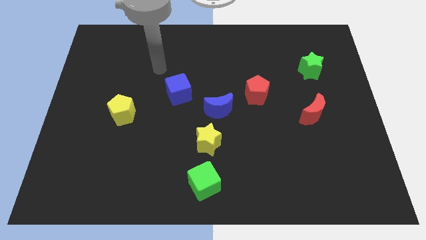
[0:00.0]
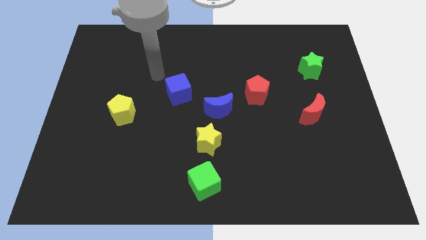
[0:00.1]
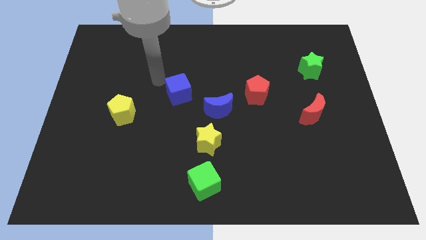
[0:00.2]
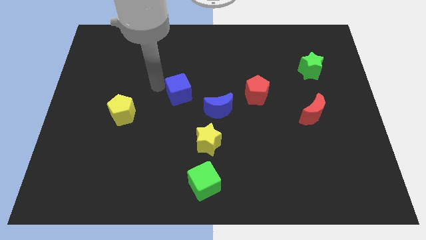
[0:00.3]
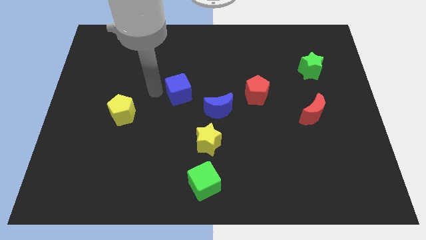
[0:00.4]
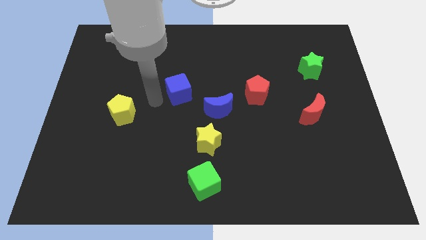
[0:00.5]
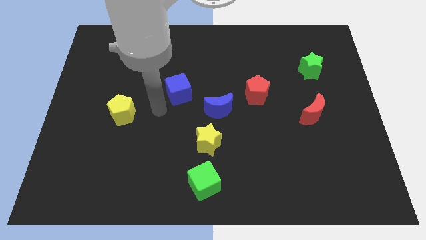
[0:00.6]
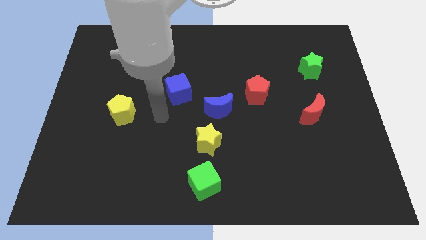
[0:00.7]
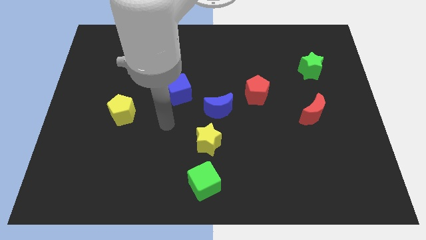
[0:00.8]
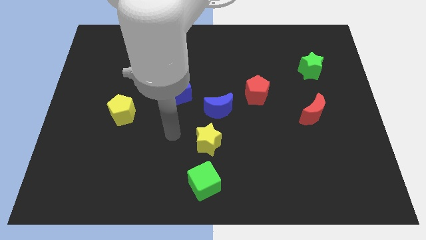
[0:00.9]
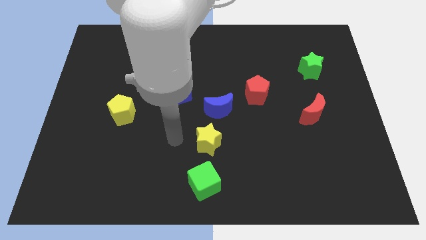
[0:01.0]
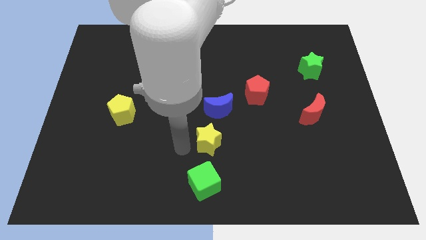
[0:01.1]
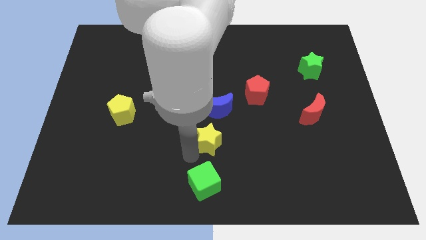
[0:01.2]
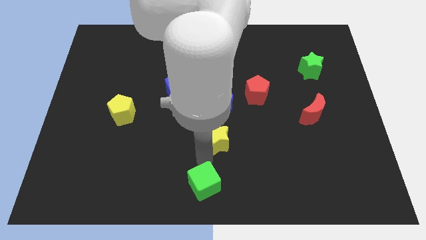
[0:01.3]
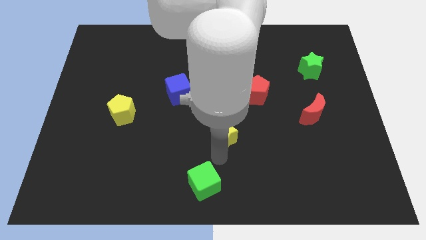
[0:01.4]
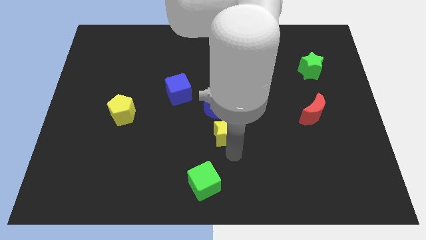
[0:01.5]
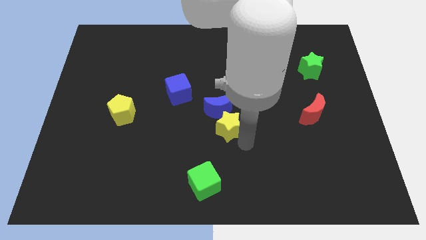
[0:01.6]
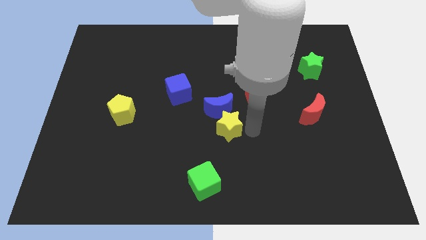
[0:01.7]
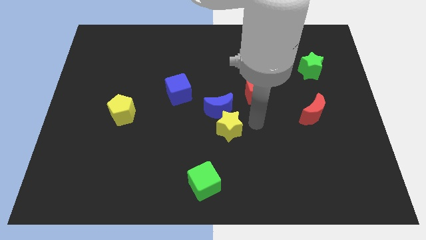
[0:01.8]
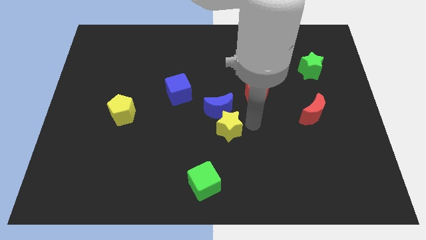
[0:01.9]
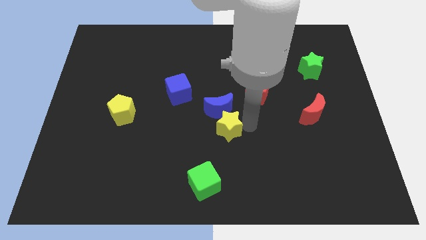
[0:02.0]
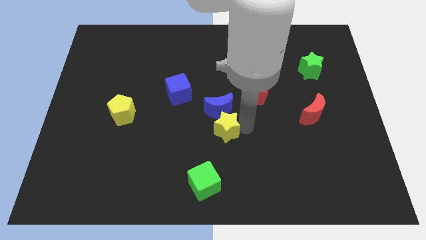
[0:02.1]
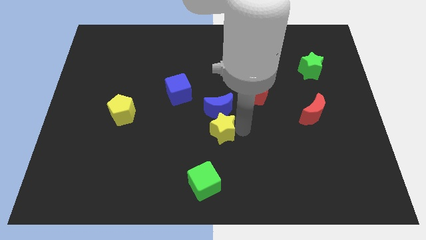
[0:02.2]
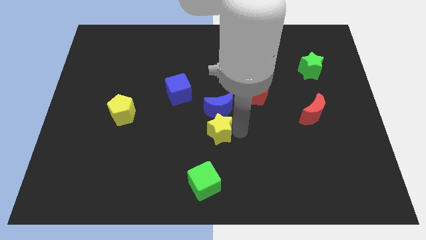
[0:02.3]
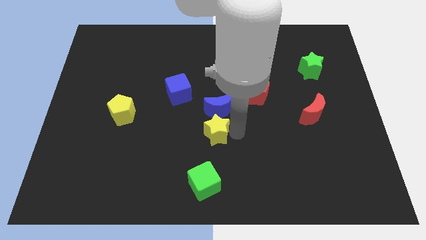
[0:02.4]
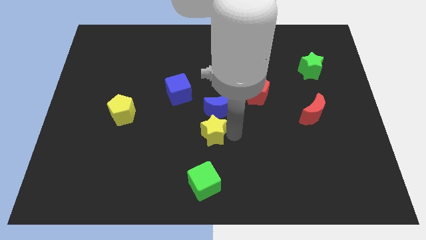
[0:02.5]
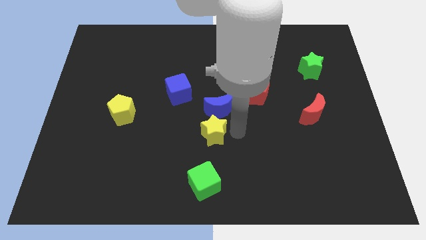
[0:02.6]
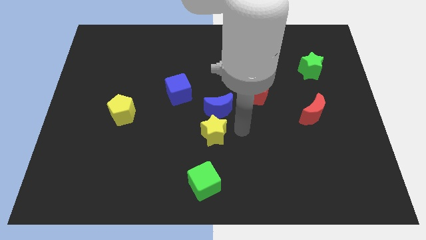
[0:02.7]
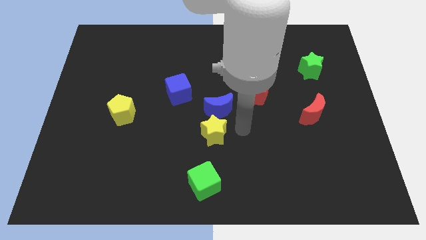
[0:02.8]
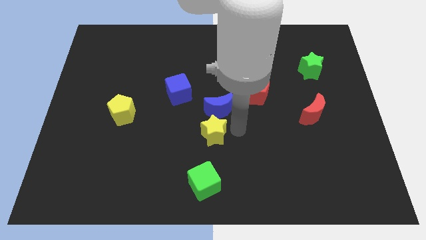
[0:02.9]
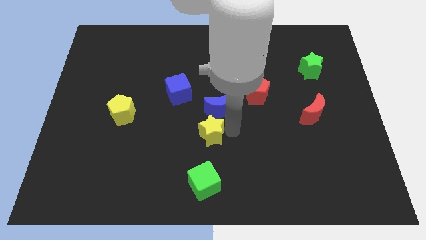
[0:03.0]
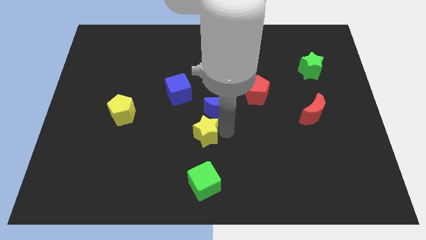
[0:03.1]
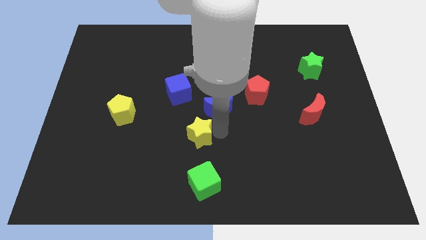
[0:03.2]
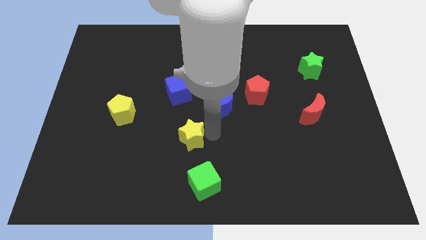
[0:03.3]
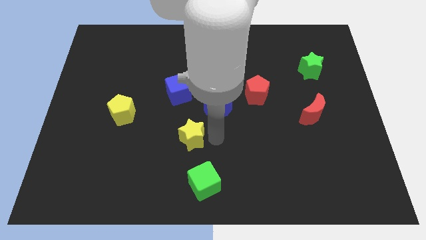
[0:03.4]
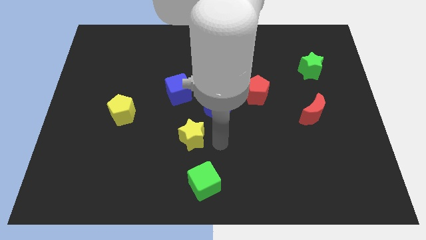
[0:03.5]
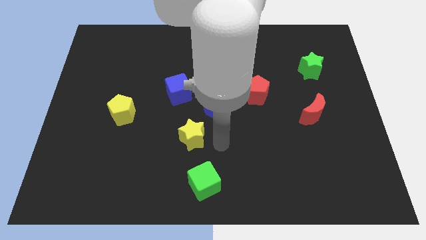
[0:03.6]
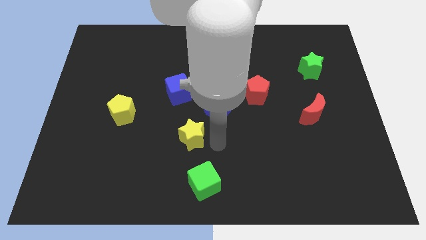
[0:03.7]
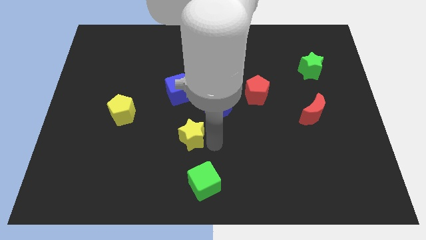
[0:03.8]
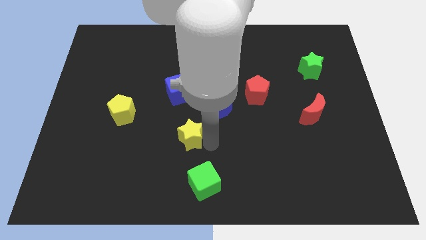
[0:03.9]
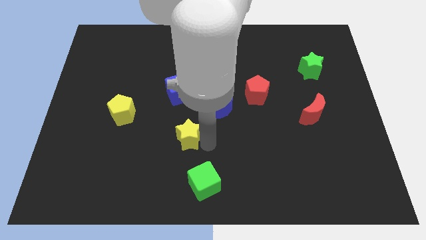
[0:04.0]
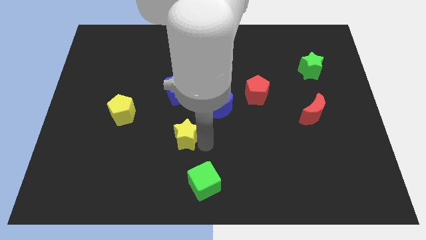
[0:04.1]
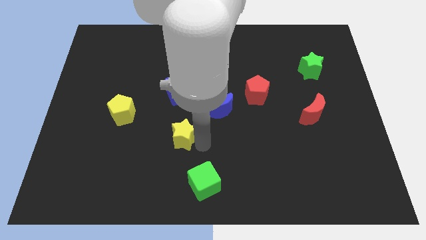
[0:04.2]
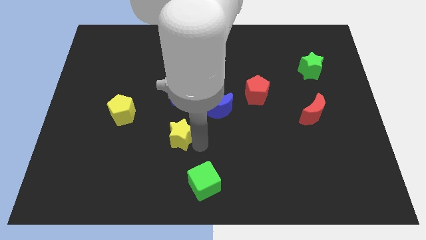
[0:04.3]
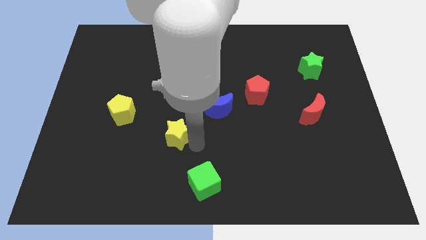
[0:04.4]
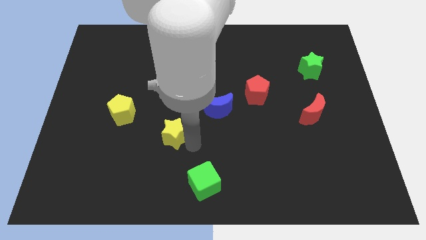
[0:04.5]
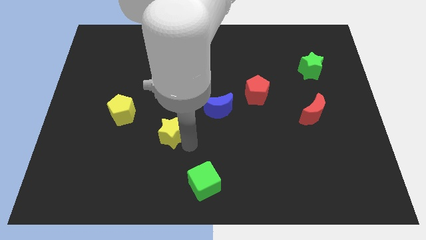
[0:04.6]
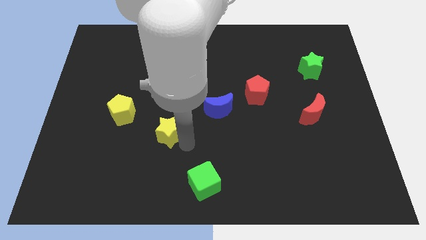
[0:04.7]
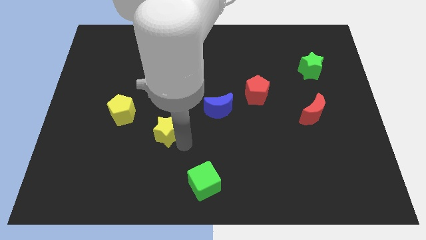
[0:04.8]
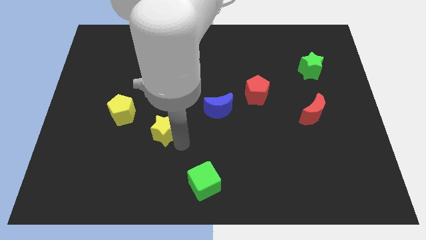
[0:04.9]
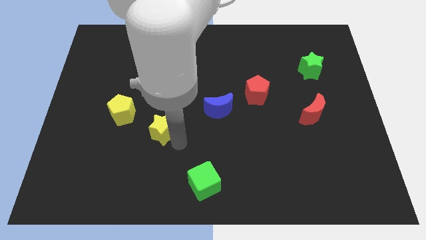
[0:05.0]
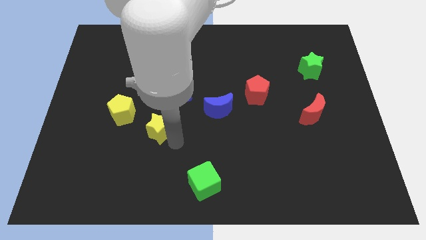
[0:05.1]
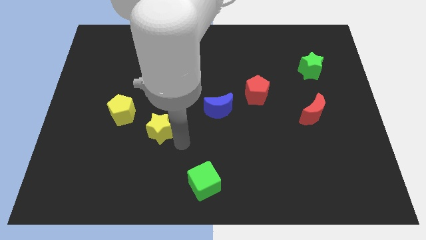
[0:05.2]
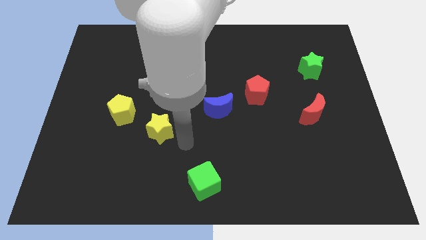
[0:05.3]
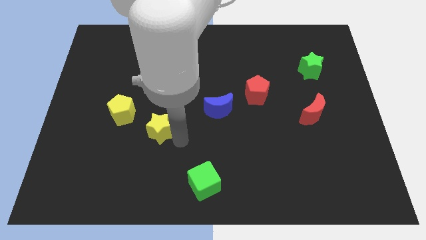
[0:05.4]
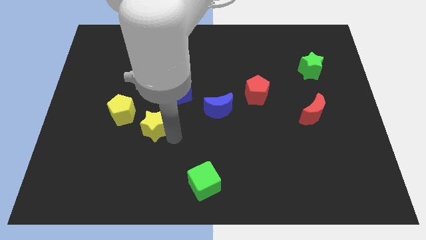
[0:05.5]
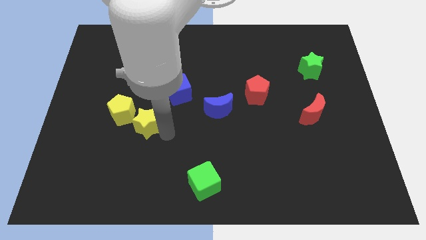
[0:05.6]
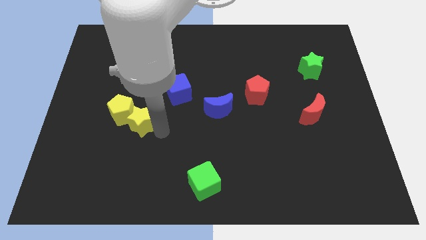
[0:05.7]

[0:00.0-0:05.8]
put the yellow star next to the yellow pentagon

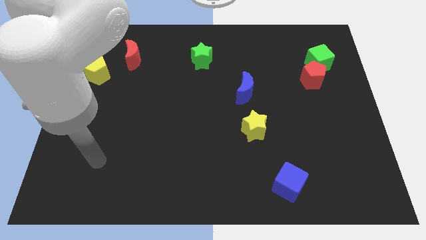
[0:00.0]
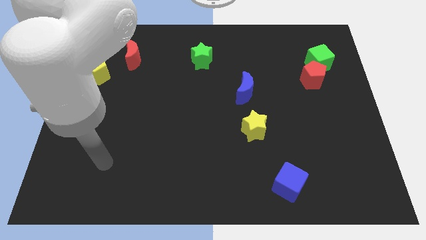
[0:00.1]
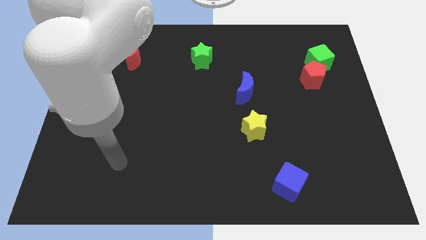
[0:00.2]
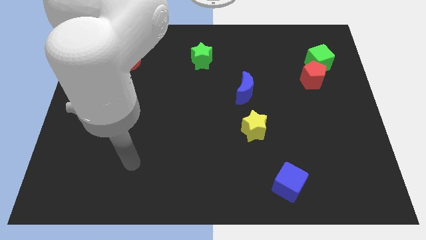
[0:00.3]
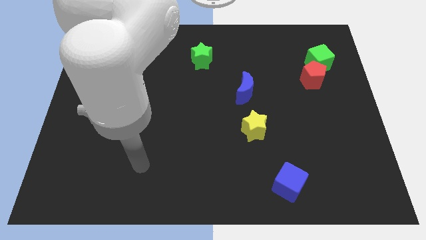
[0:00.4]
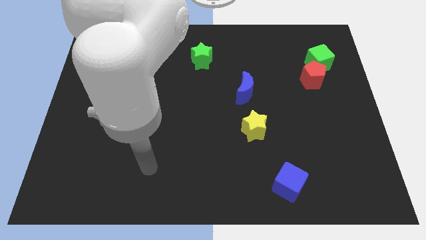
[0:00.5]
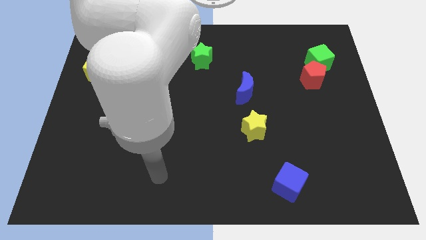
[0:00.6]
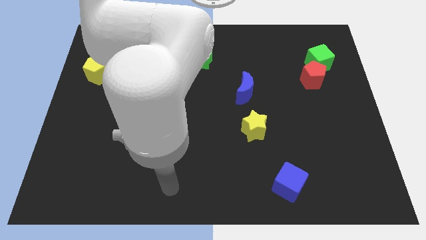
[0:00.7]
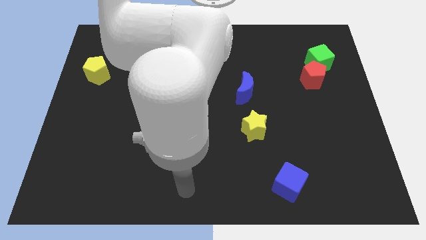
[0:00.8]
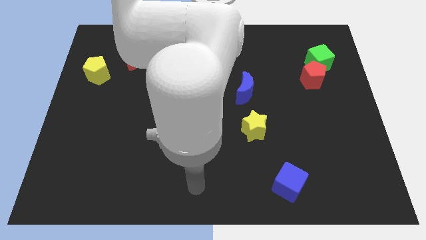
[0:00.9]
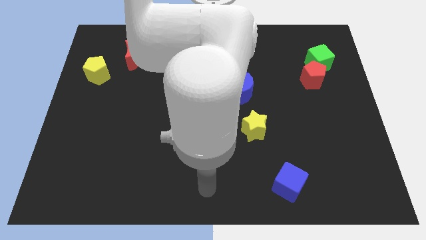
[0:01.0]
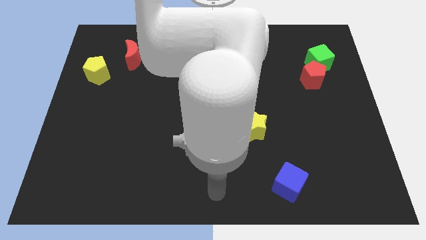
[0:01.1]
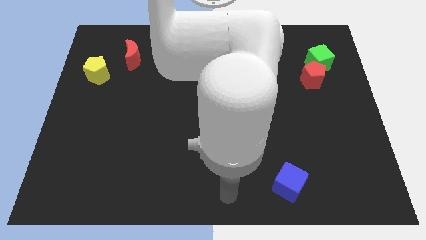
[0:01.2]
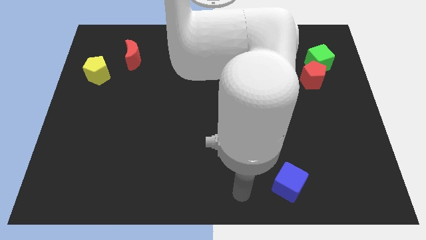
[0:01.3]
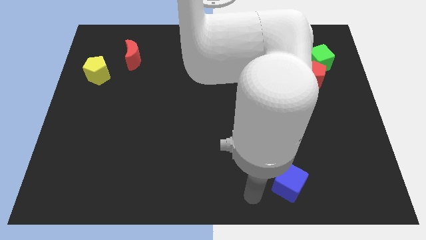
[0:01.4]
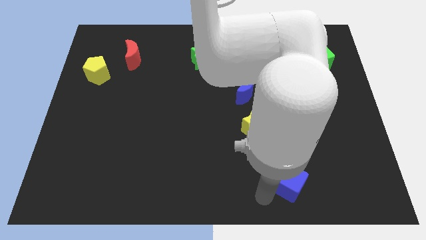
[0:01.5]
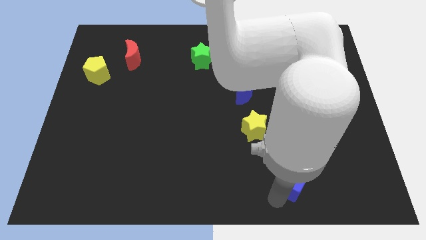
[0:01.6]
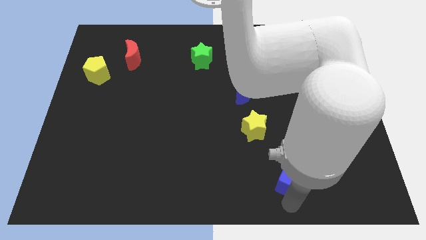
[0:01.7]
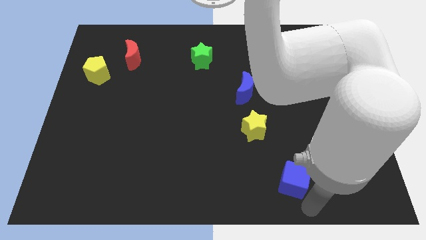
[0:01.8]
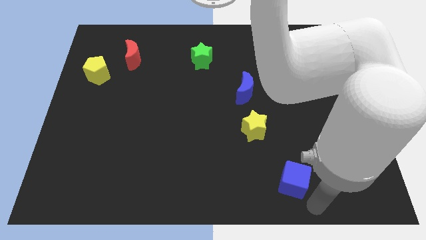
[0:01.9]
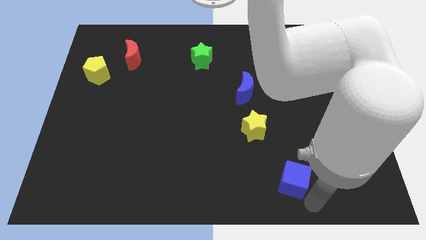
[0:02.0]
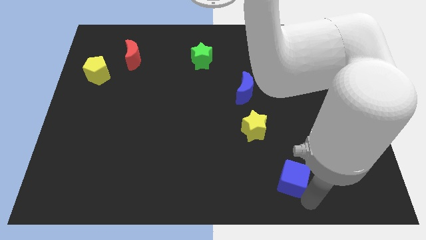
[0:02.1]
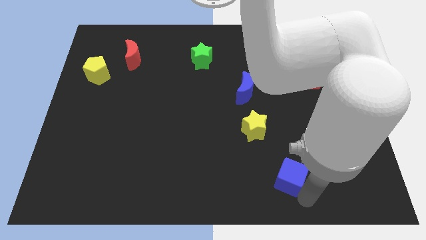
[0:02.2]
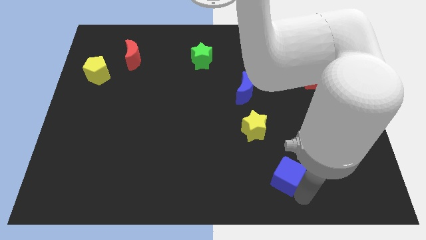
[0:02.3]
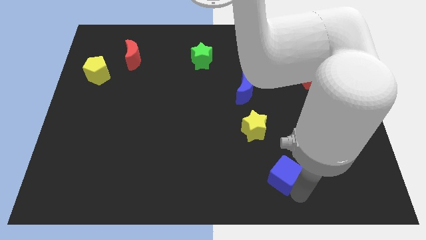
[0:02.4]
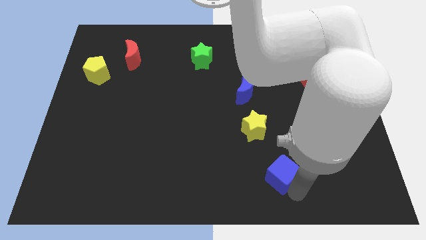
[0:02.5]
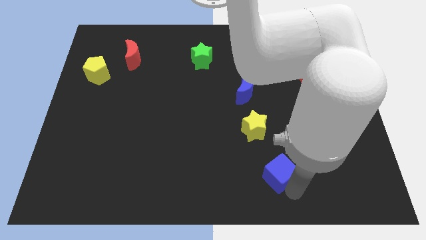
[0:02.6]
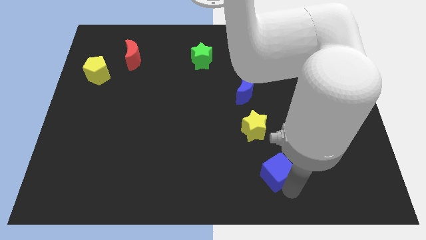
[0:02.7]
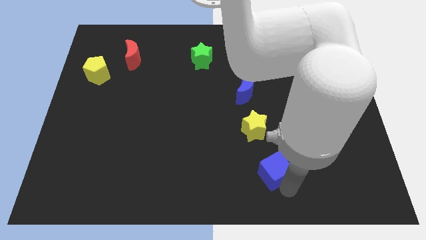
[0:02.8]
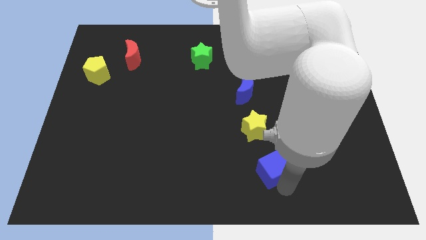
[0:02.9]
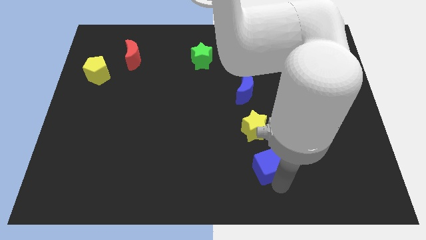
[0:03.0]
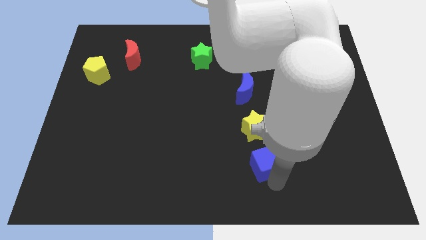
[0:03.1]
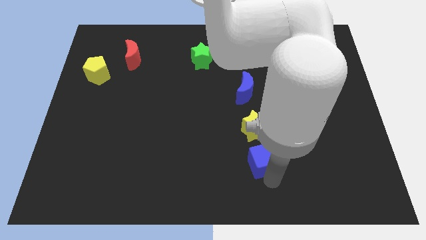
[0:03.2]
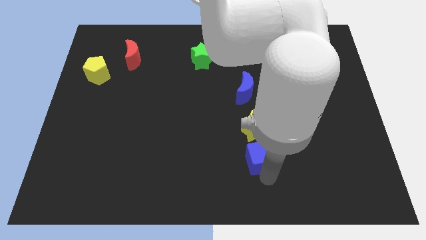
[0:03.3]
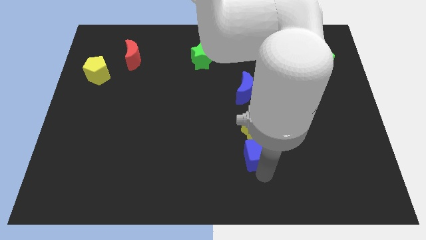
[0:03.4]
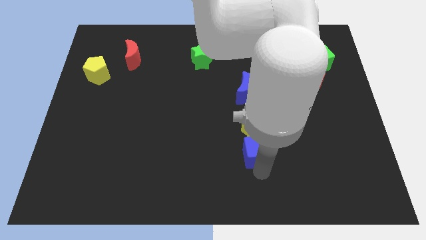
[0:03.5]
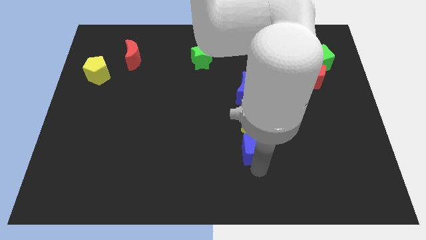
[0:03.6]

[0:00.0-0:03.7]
slide the blue cube to the yellow star
